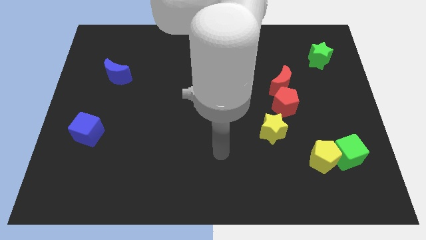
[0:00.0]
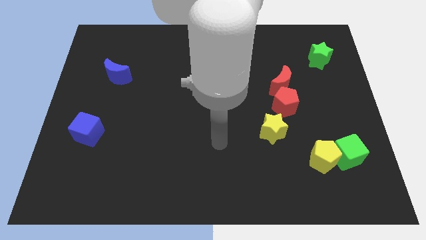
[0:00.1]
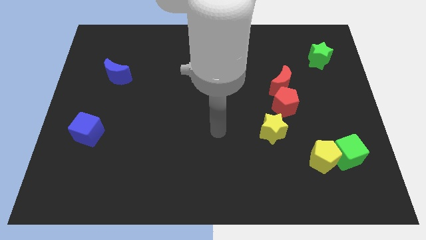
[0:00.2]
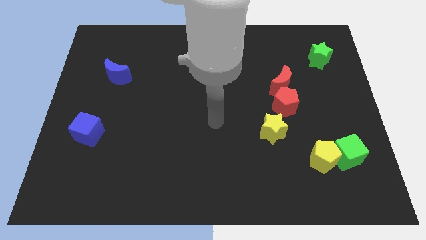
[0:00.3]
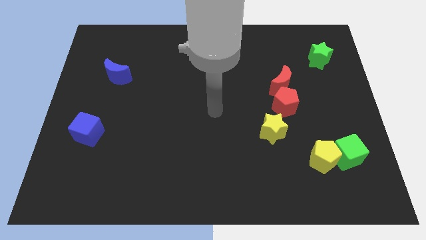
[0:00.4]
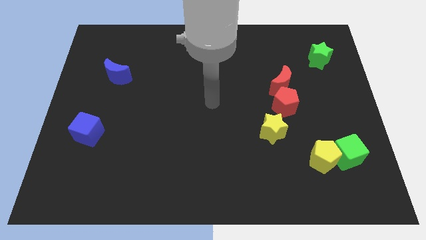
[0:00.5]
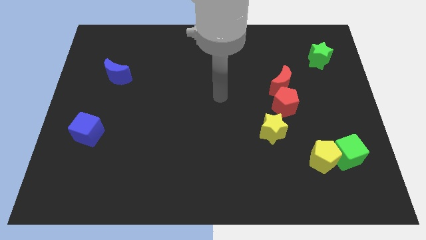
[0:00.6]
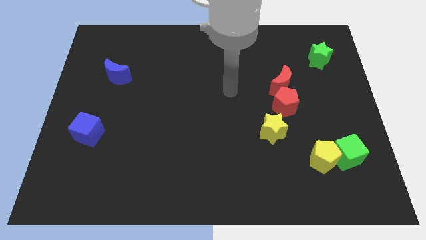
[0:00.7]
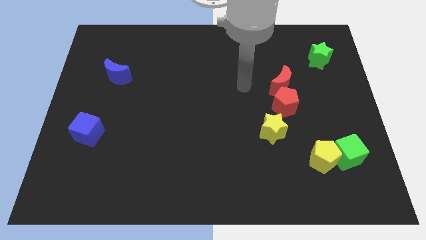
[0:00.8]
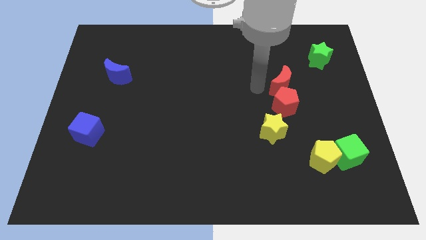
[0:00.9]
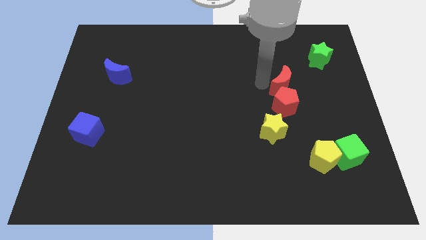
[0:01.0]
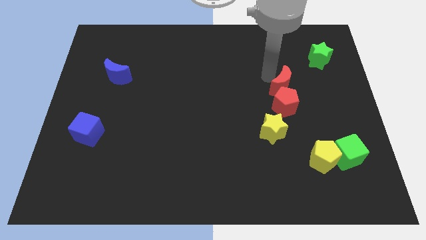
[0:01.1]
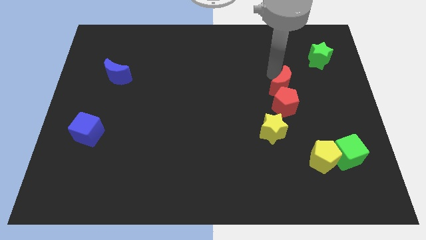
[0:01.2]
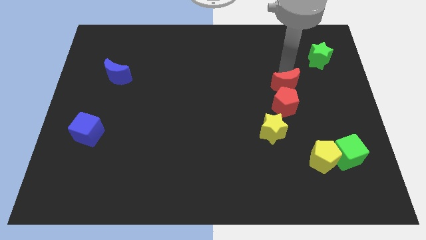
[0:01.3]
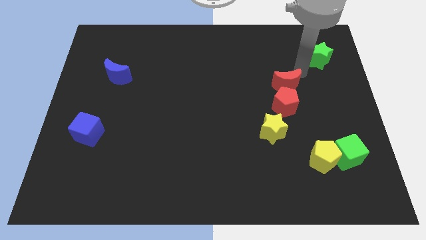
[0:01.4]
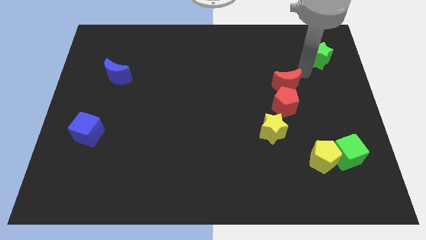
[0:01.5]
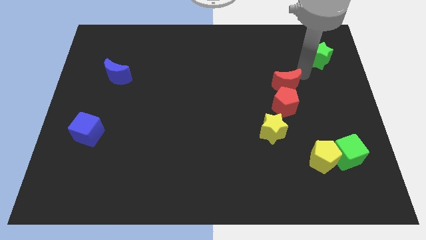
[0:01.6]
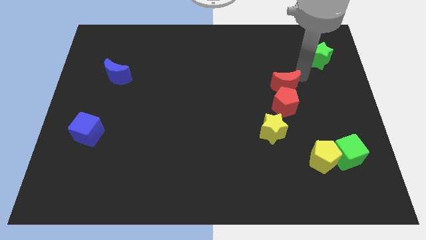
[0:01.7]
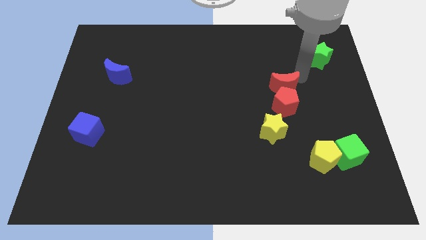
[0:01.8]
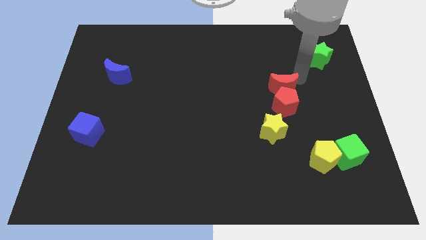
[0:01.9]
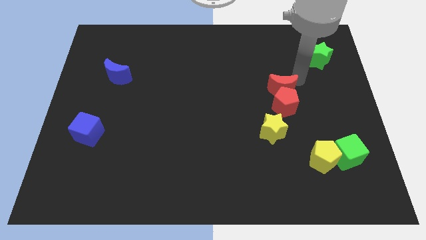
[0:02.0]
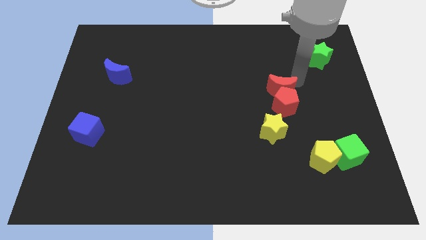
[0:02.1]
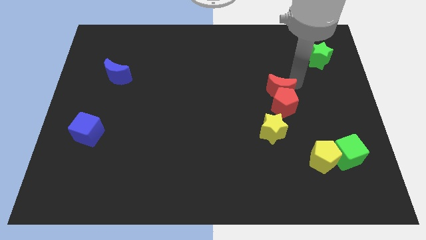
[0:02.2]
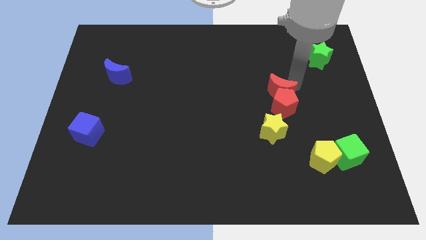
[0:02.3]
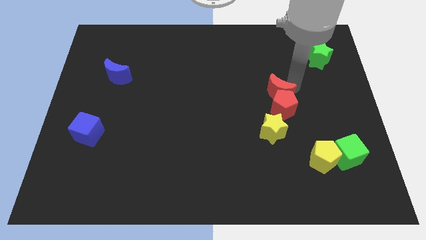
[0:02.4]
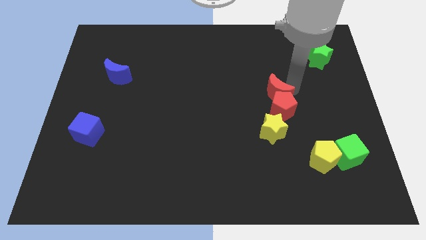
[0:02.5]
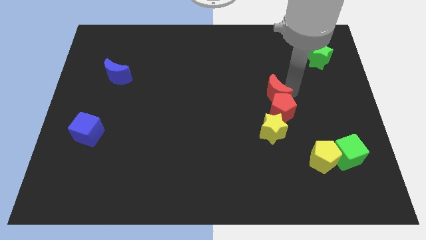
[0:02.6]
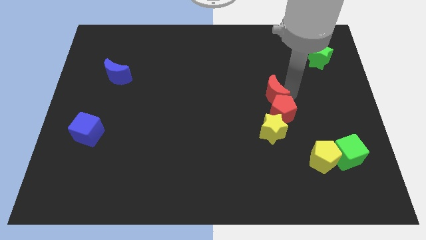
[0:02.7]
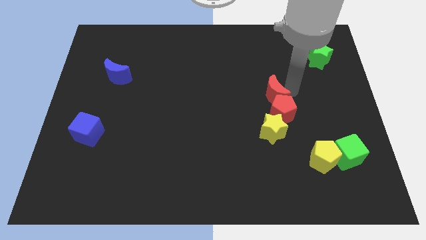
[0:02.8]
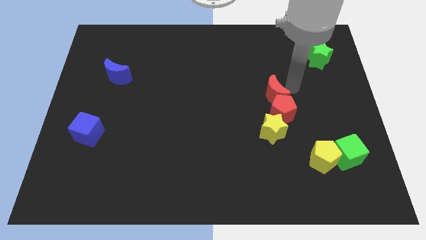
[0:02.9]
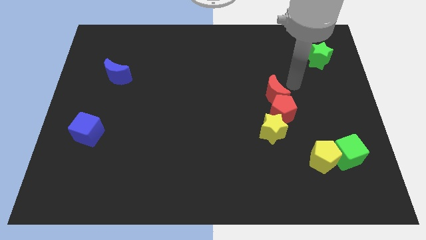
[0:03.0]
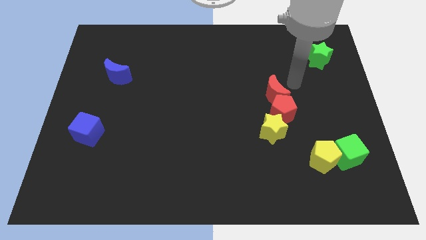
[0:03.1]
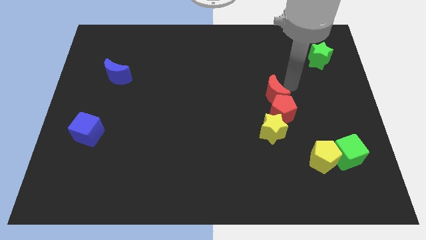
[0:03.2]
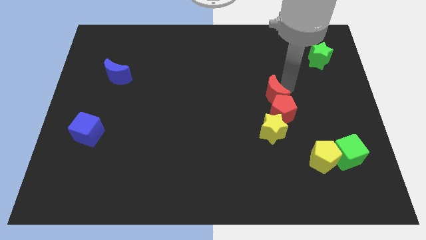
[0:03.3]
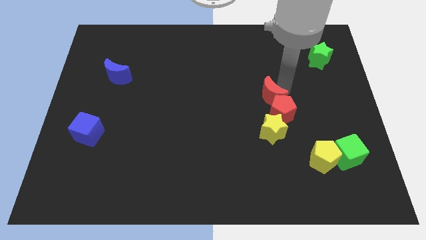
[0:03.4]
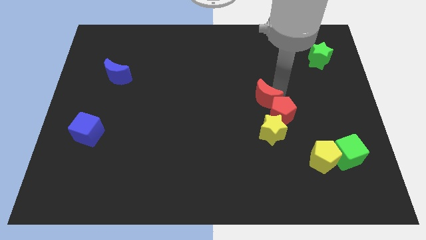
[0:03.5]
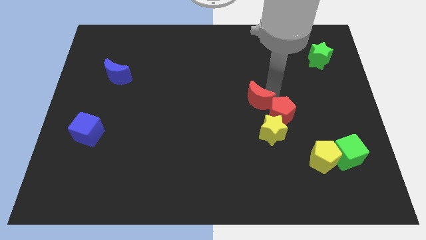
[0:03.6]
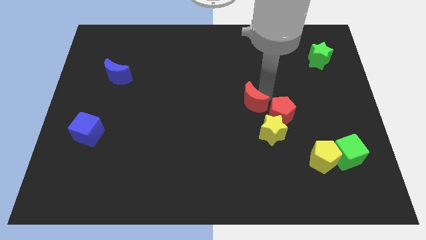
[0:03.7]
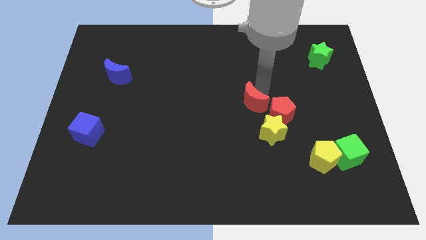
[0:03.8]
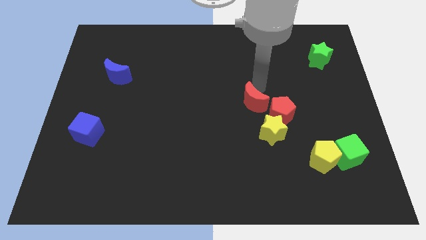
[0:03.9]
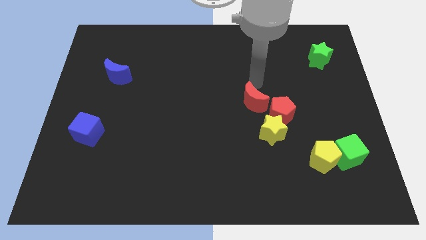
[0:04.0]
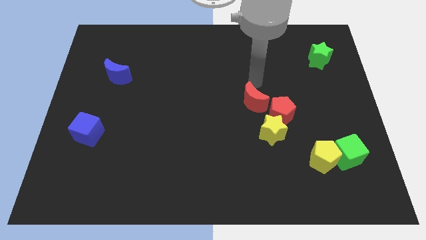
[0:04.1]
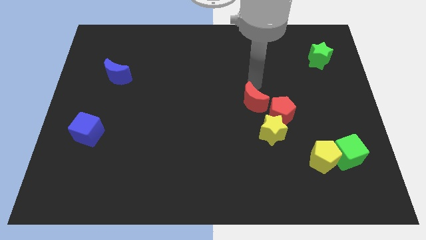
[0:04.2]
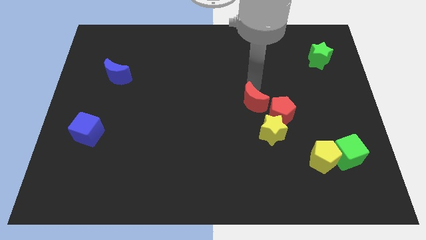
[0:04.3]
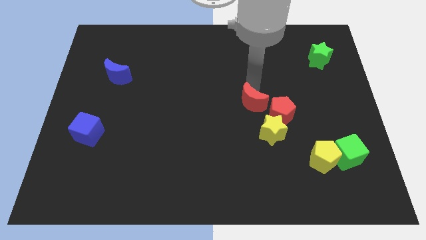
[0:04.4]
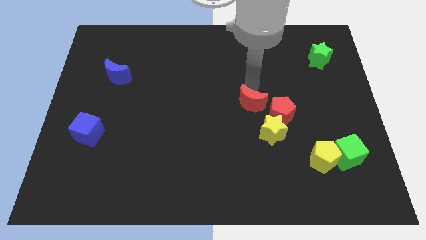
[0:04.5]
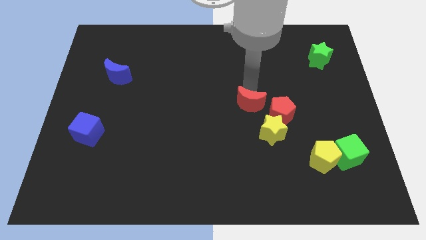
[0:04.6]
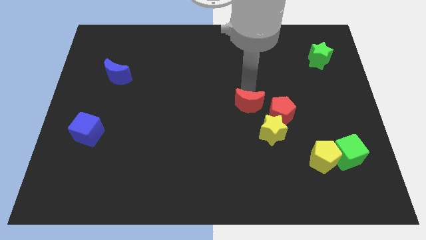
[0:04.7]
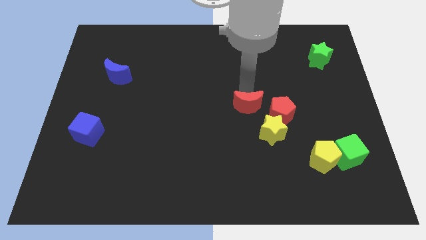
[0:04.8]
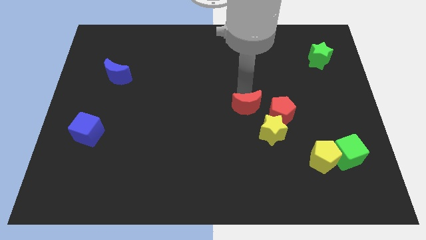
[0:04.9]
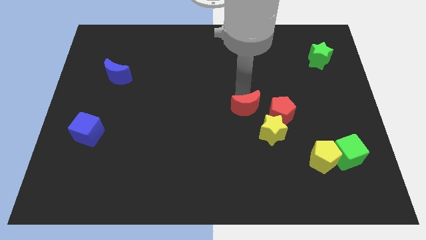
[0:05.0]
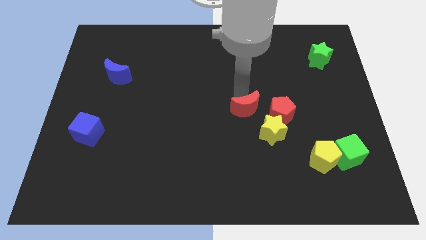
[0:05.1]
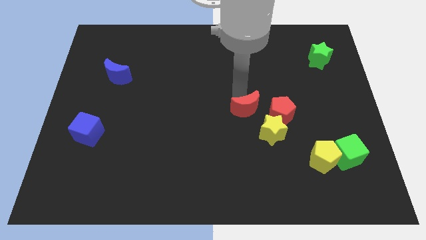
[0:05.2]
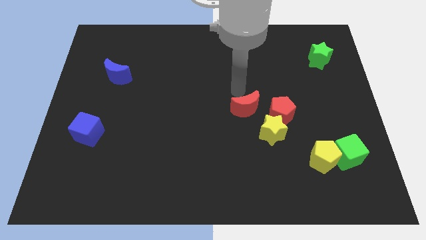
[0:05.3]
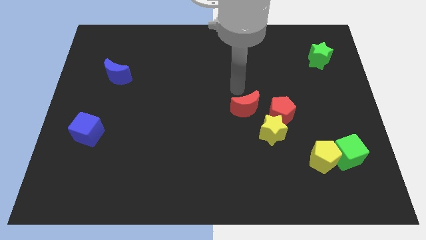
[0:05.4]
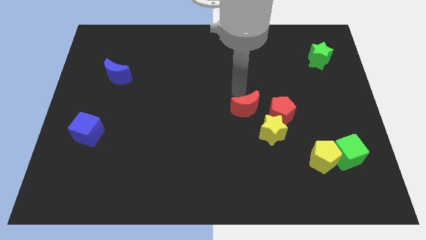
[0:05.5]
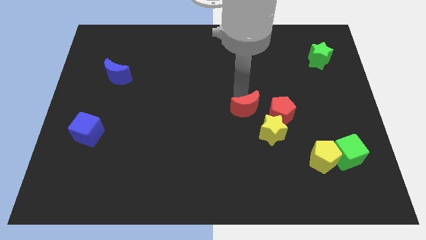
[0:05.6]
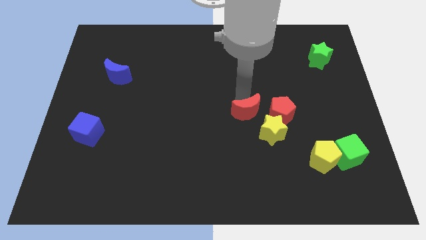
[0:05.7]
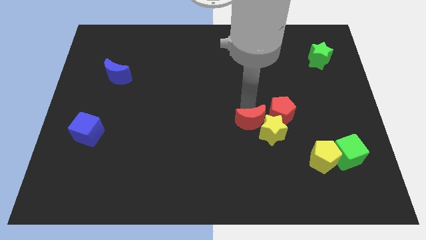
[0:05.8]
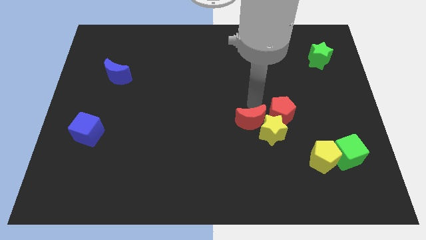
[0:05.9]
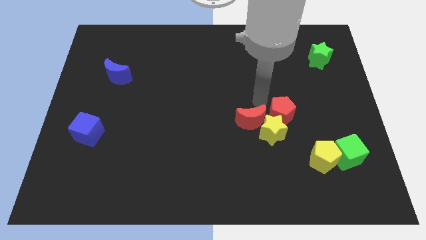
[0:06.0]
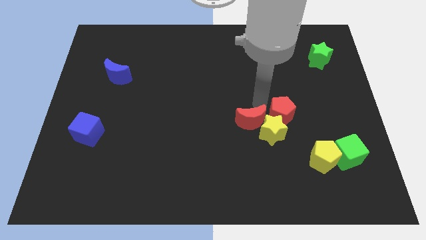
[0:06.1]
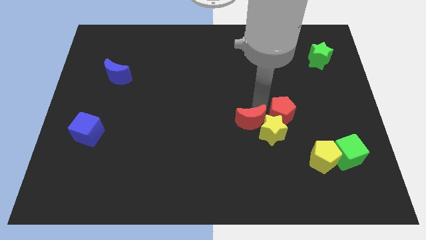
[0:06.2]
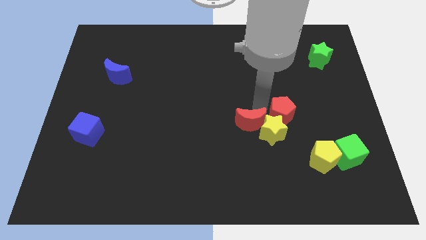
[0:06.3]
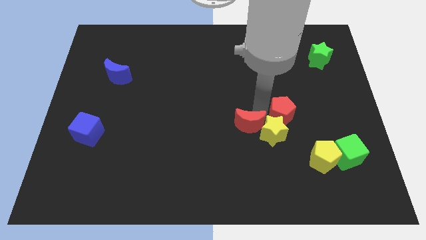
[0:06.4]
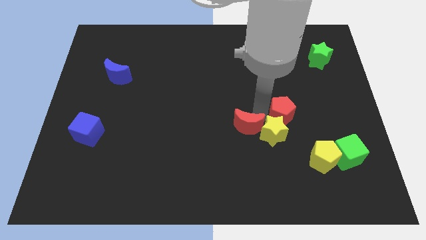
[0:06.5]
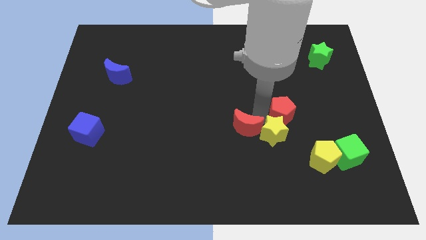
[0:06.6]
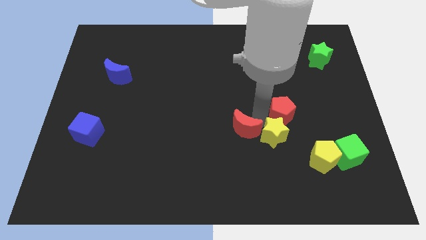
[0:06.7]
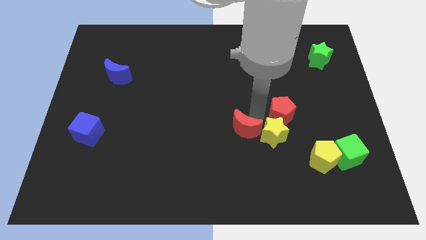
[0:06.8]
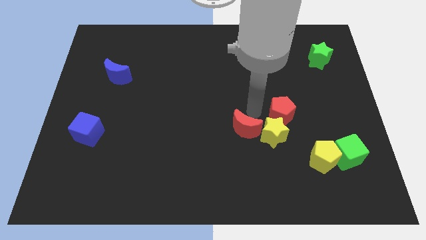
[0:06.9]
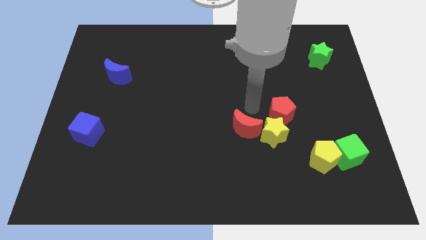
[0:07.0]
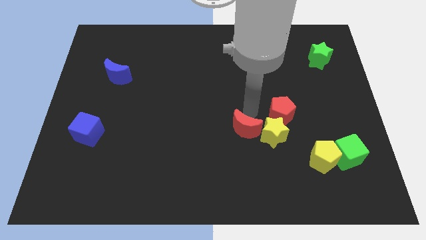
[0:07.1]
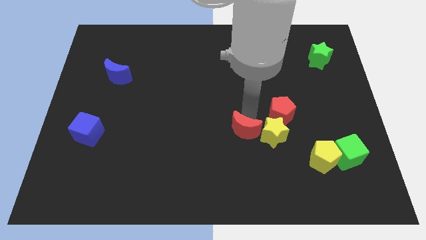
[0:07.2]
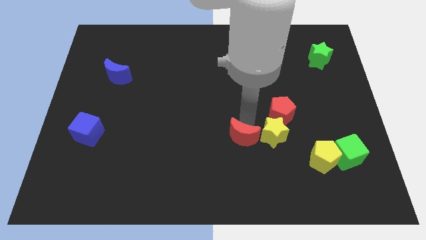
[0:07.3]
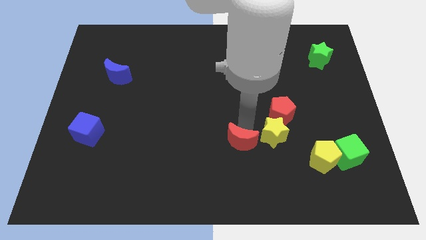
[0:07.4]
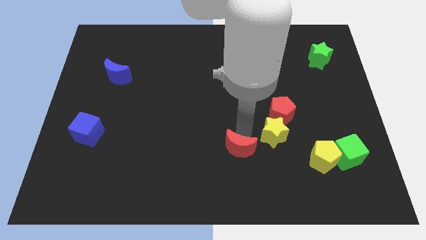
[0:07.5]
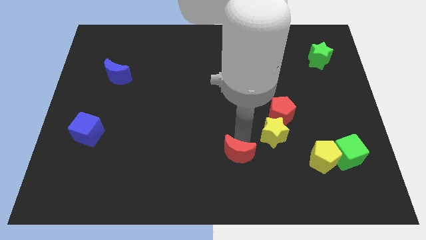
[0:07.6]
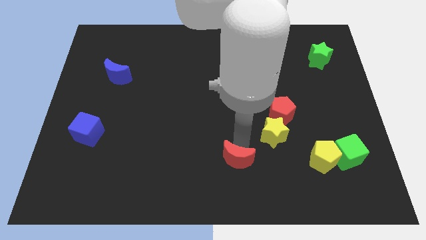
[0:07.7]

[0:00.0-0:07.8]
put the red moon to the bottom
